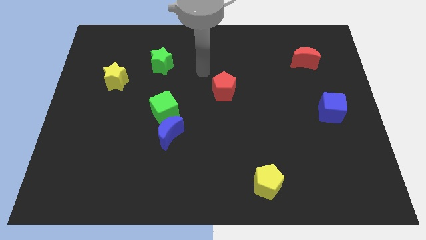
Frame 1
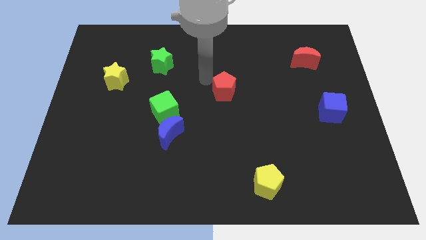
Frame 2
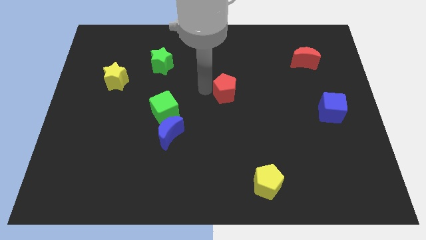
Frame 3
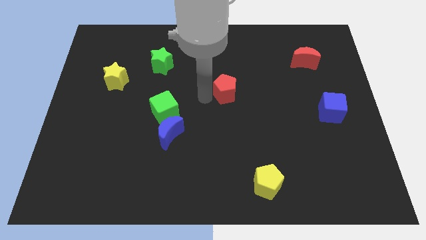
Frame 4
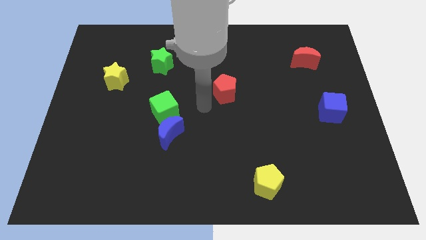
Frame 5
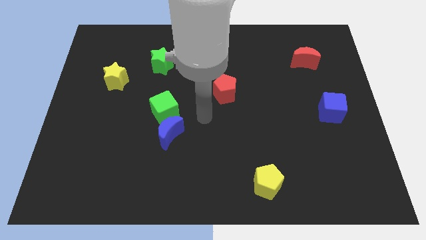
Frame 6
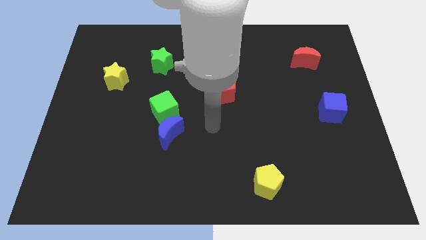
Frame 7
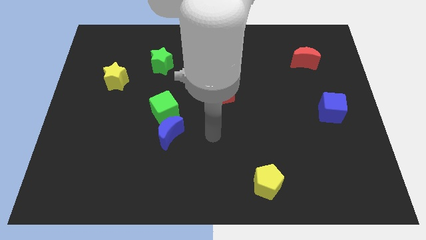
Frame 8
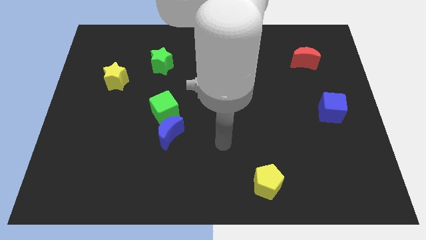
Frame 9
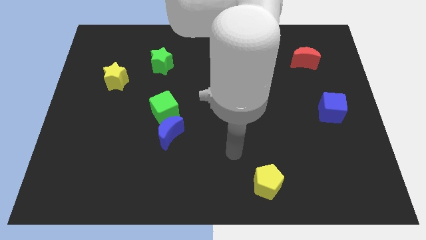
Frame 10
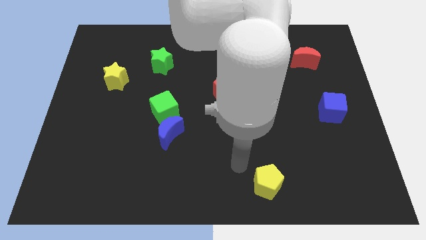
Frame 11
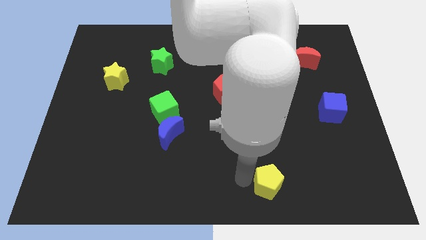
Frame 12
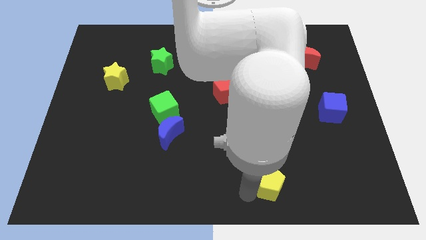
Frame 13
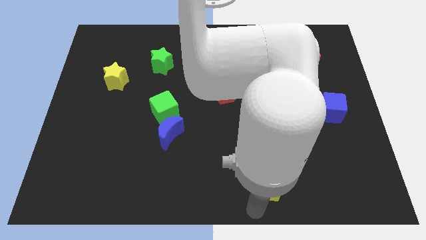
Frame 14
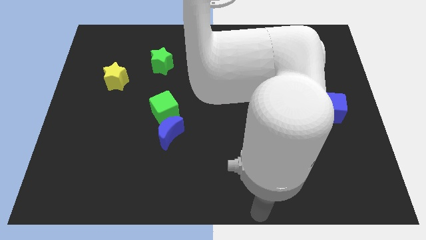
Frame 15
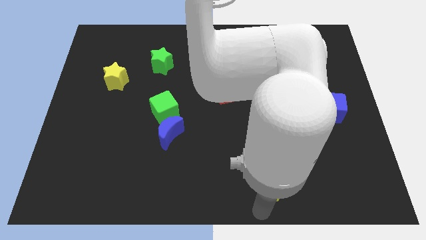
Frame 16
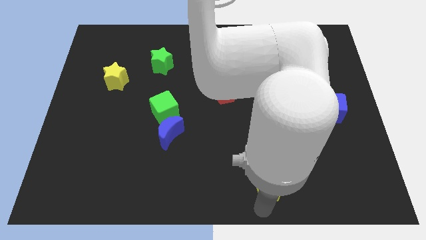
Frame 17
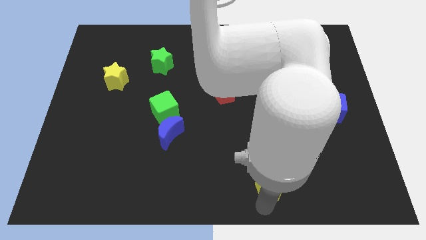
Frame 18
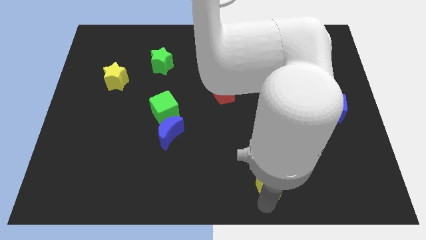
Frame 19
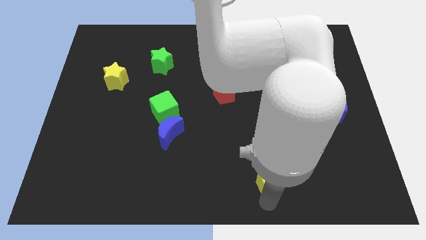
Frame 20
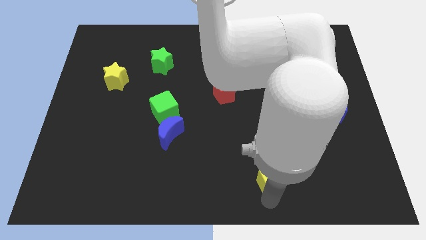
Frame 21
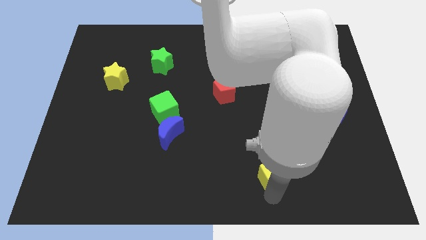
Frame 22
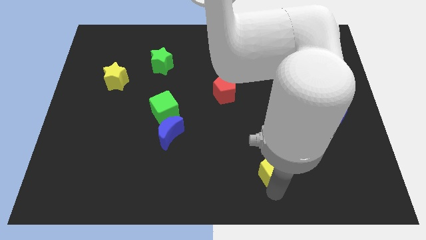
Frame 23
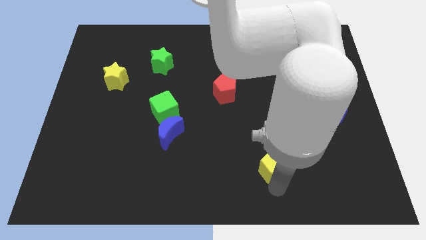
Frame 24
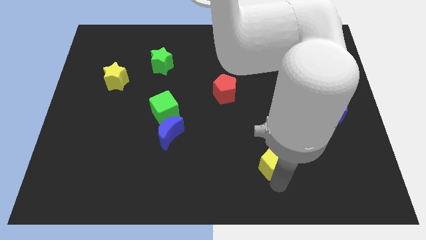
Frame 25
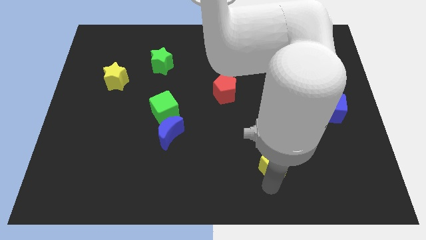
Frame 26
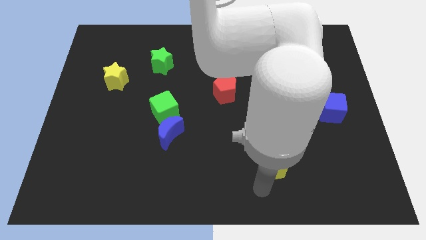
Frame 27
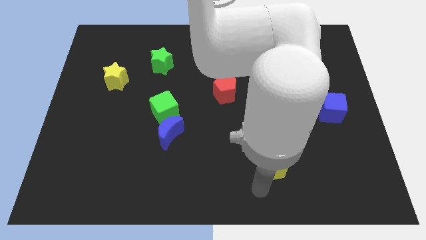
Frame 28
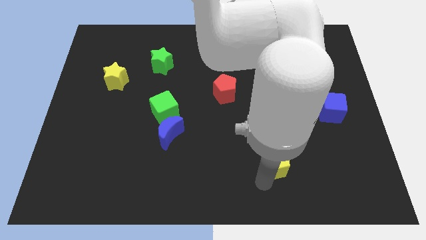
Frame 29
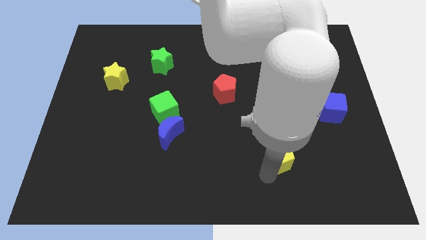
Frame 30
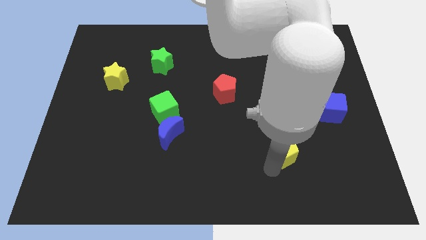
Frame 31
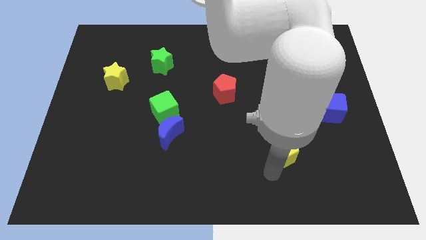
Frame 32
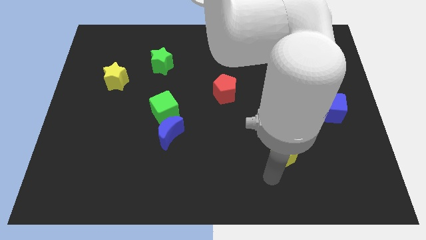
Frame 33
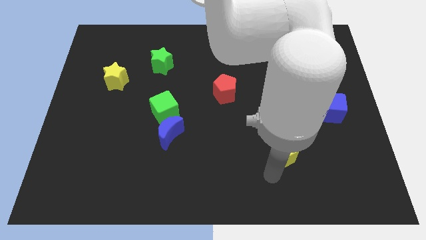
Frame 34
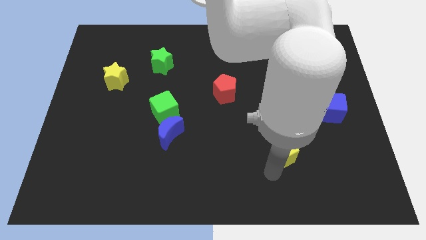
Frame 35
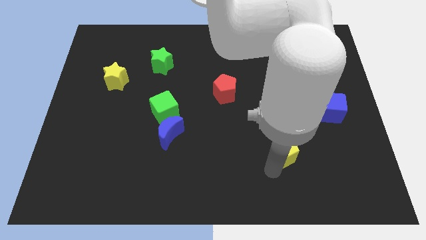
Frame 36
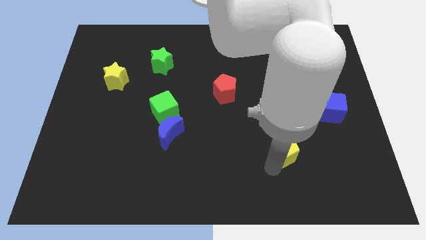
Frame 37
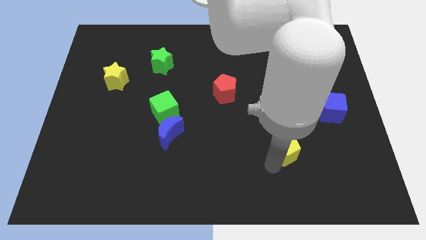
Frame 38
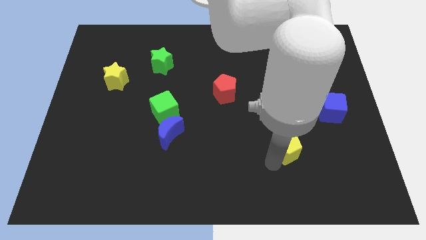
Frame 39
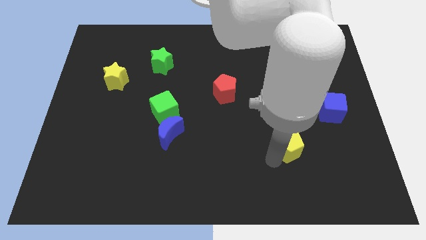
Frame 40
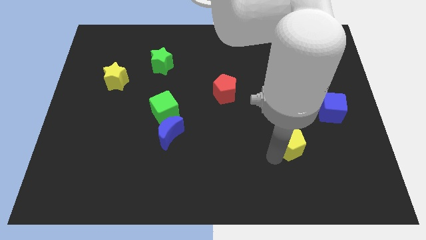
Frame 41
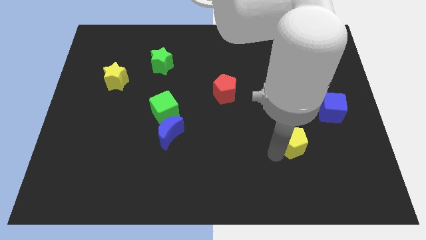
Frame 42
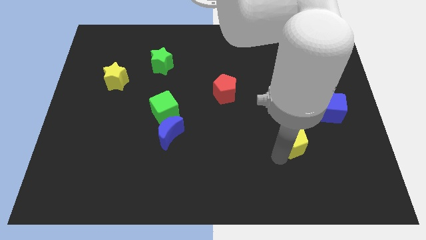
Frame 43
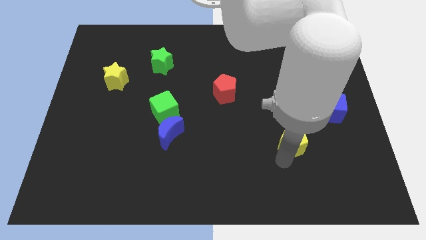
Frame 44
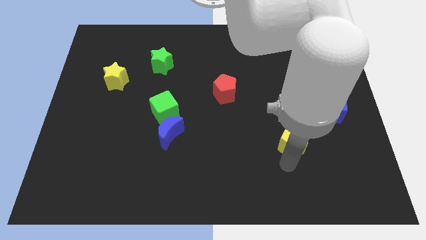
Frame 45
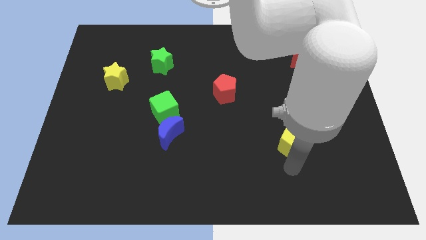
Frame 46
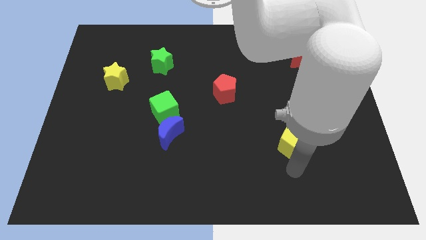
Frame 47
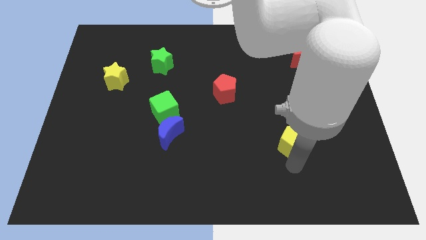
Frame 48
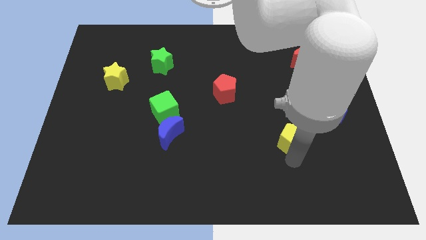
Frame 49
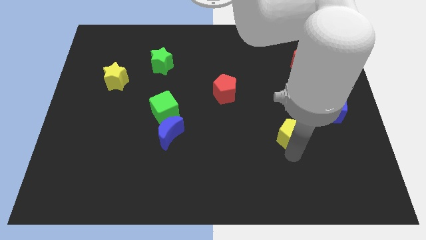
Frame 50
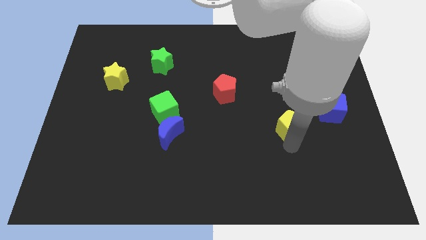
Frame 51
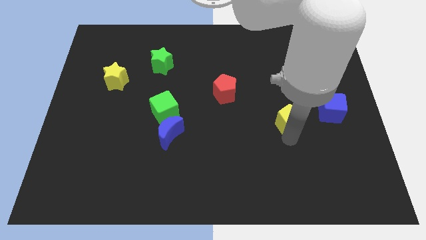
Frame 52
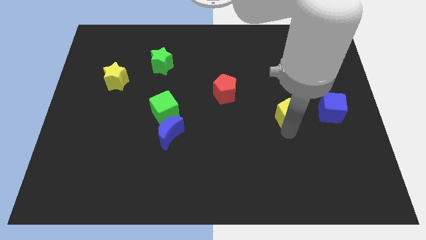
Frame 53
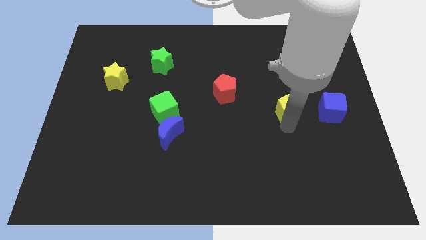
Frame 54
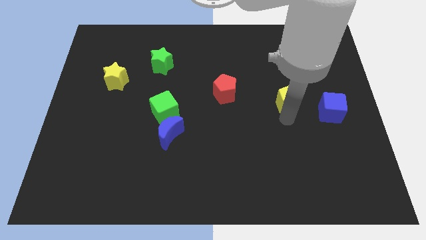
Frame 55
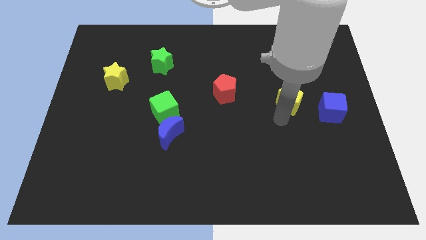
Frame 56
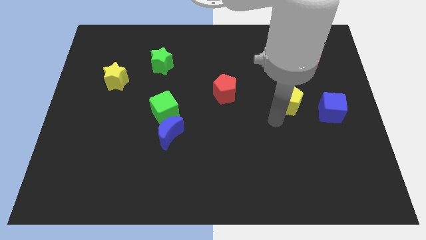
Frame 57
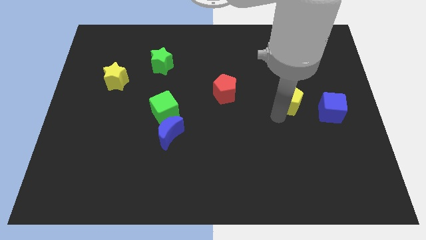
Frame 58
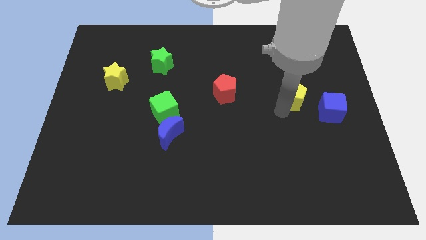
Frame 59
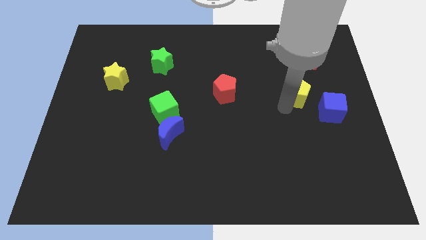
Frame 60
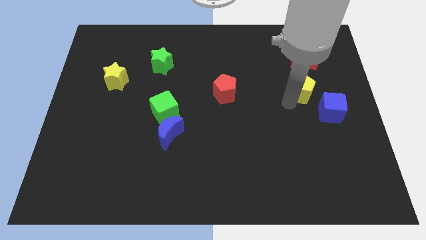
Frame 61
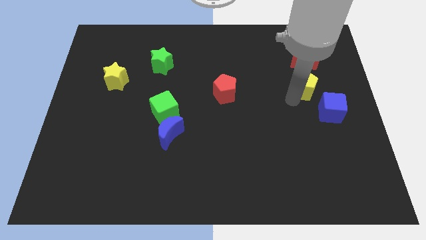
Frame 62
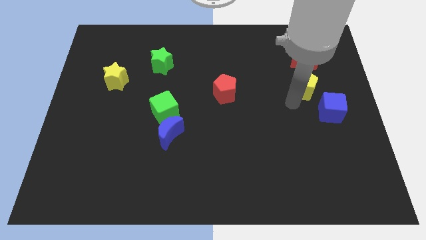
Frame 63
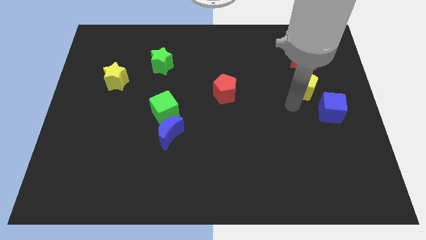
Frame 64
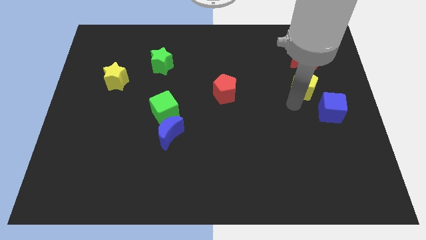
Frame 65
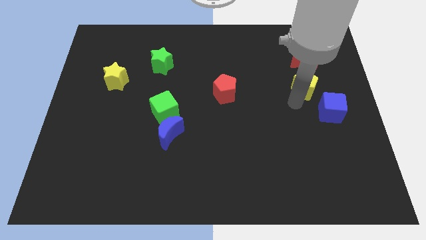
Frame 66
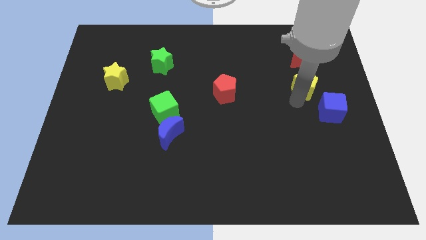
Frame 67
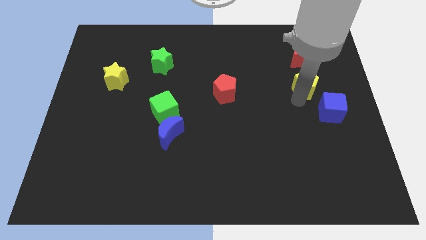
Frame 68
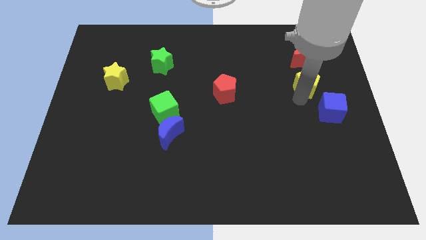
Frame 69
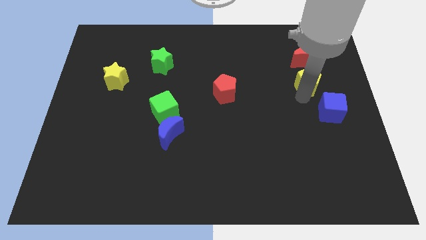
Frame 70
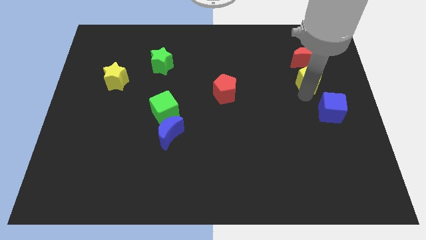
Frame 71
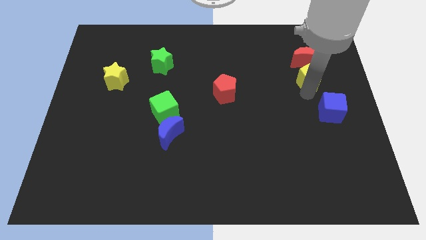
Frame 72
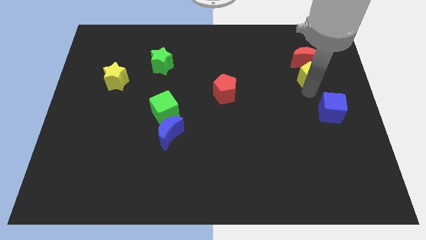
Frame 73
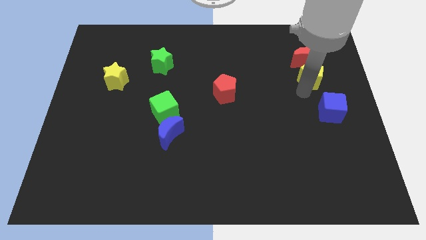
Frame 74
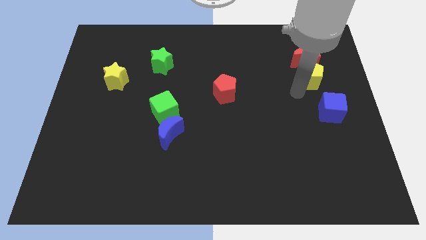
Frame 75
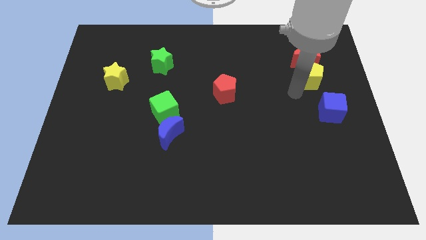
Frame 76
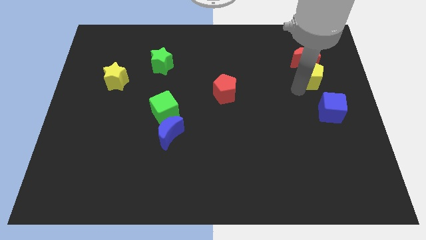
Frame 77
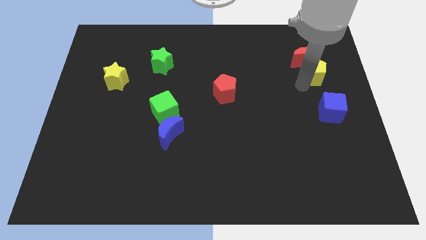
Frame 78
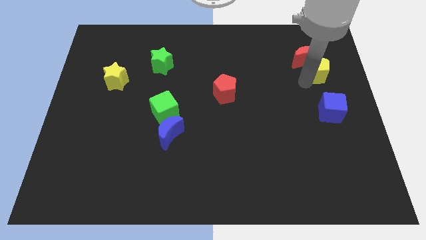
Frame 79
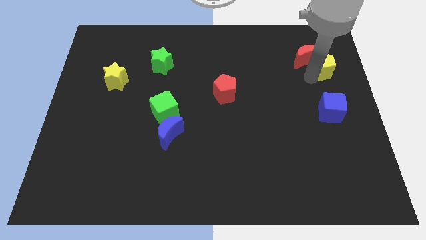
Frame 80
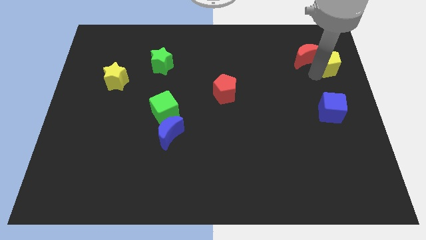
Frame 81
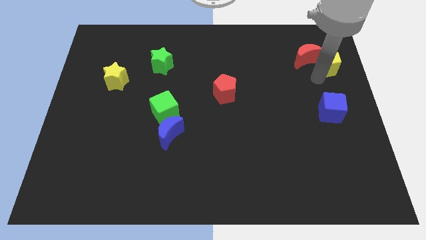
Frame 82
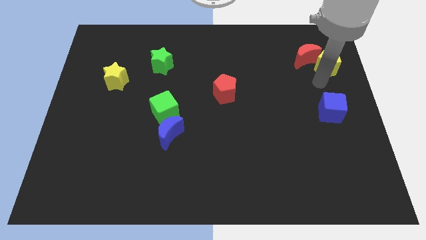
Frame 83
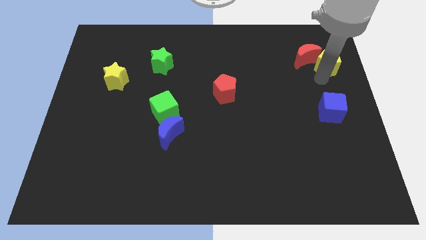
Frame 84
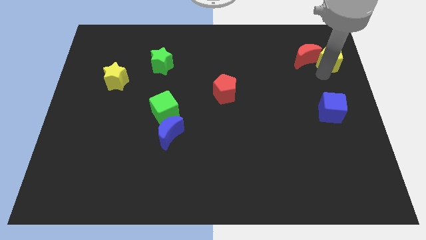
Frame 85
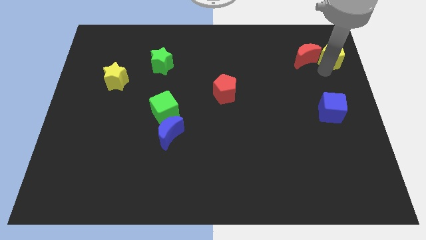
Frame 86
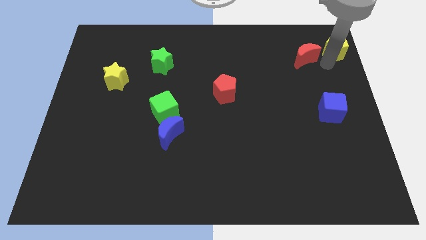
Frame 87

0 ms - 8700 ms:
put the yellow pentagon to the top right corner
